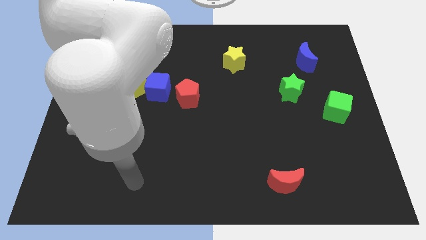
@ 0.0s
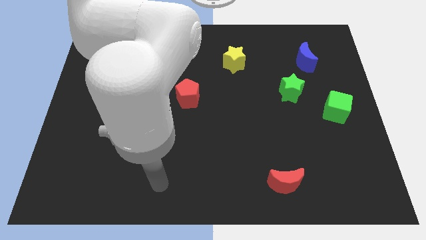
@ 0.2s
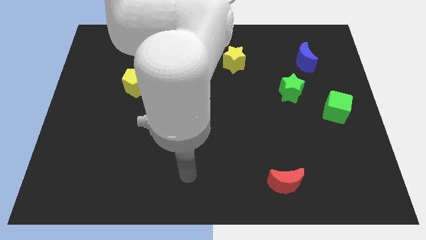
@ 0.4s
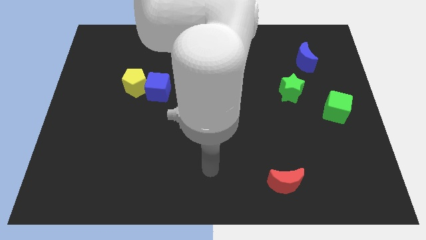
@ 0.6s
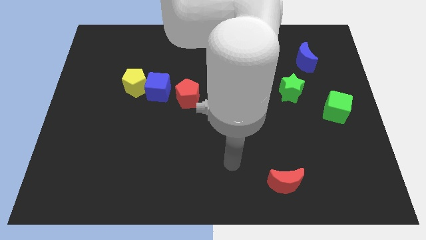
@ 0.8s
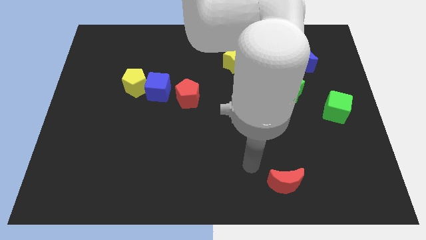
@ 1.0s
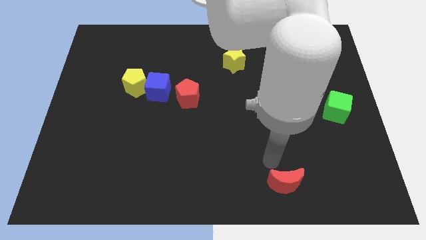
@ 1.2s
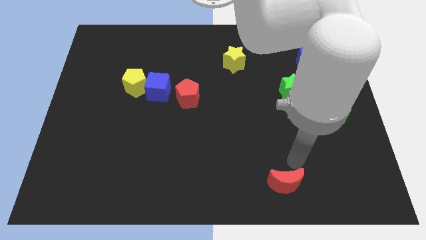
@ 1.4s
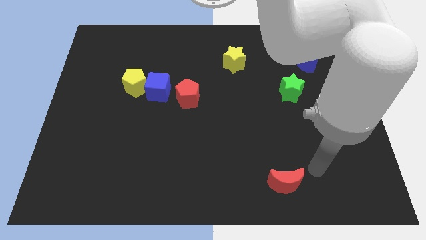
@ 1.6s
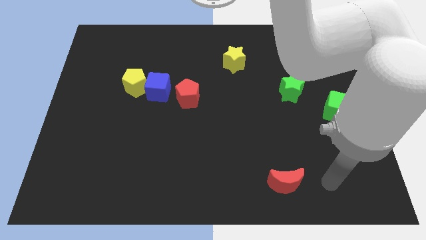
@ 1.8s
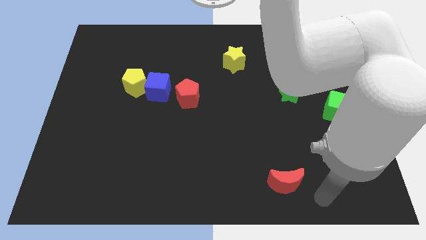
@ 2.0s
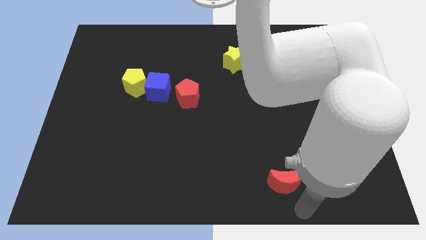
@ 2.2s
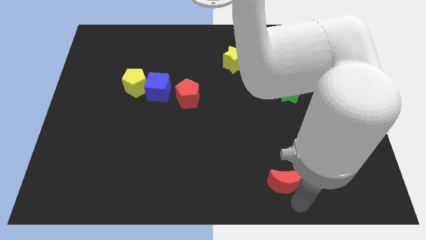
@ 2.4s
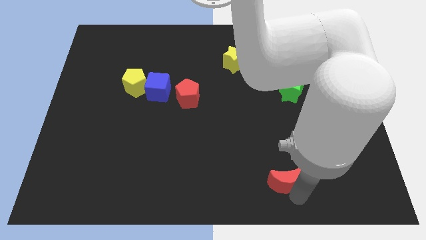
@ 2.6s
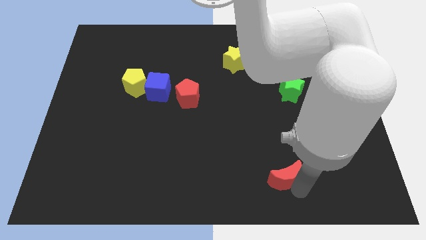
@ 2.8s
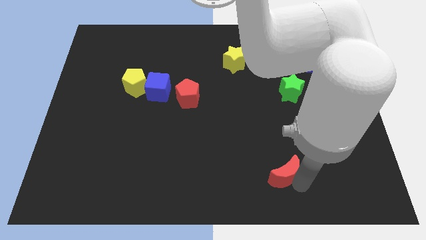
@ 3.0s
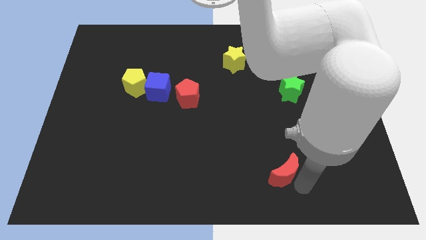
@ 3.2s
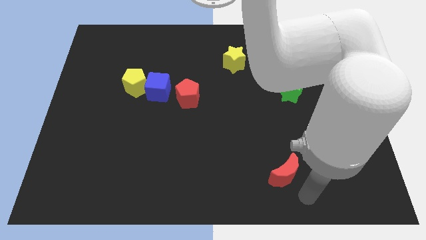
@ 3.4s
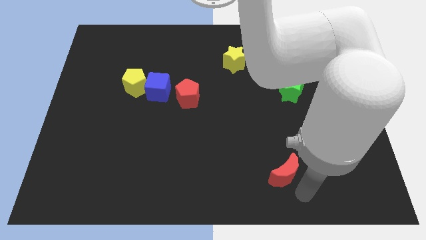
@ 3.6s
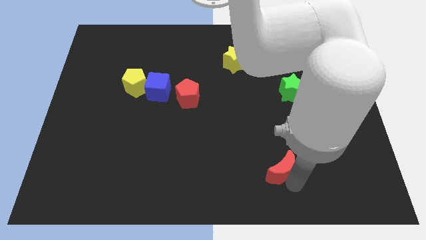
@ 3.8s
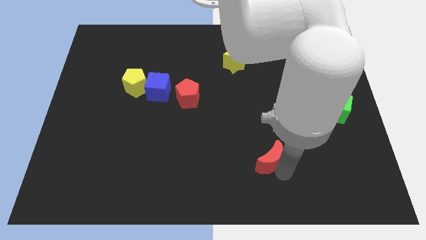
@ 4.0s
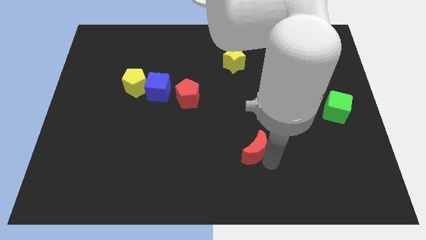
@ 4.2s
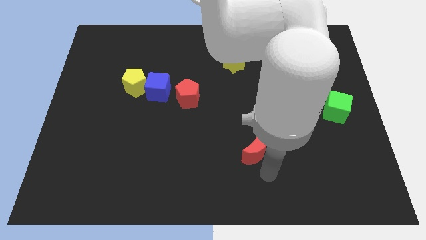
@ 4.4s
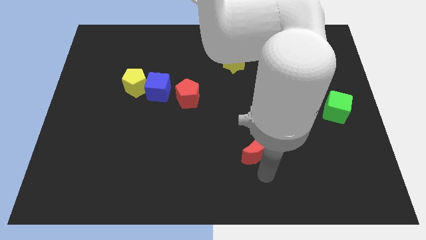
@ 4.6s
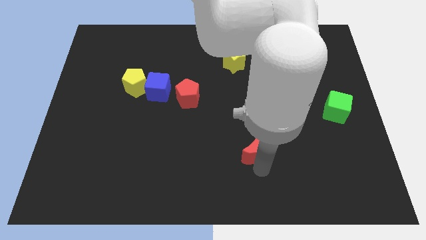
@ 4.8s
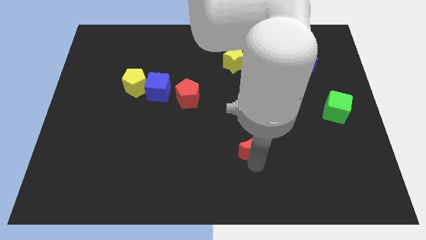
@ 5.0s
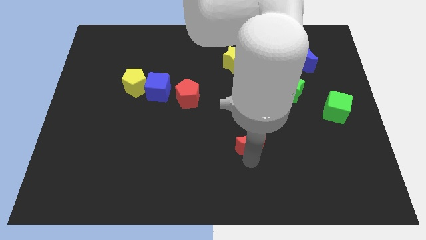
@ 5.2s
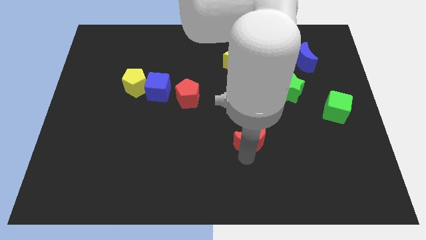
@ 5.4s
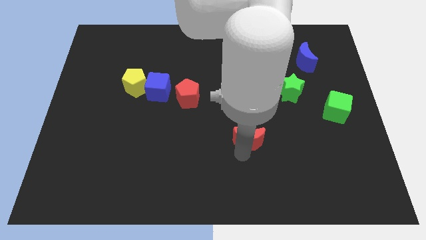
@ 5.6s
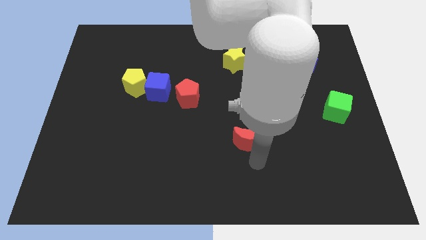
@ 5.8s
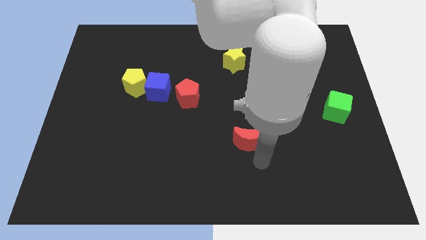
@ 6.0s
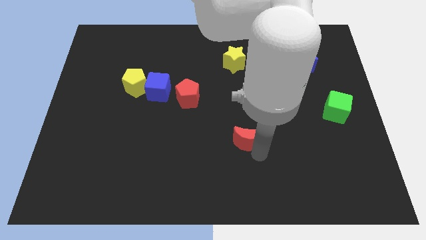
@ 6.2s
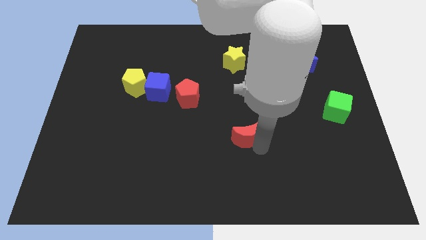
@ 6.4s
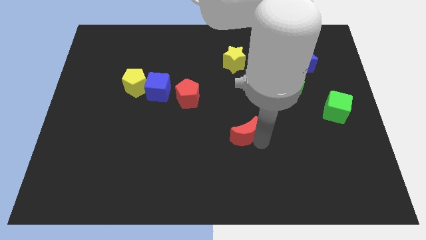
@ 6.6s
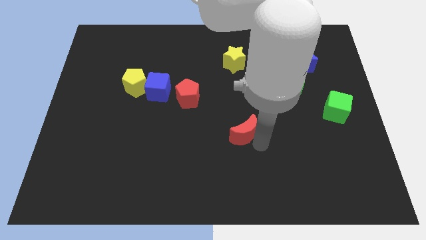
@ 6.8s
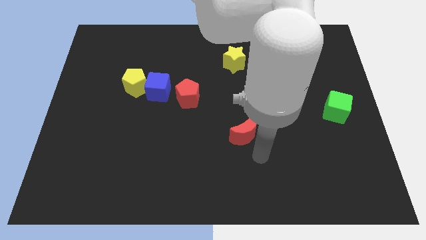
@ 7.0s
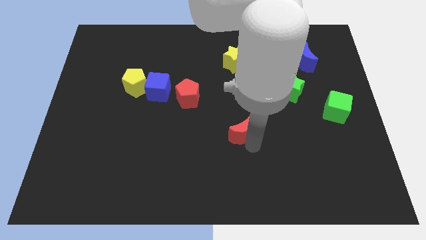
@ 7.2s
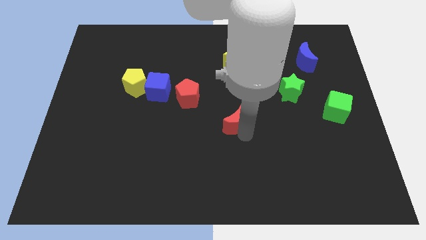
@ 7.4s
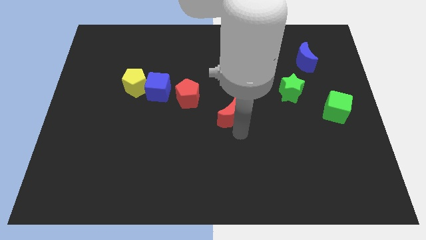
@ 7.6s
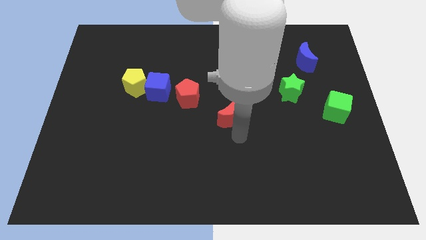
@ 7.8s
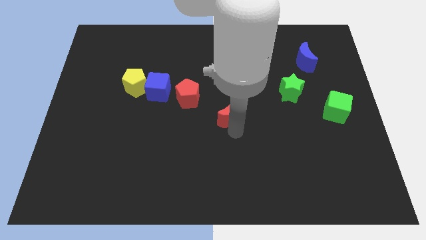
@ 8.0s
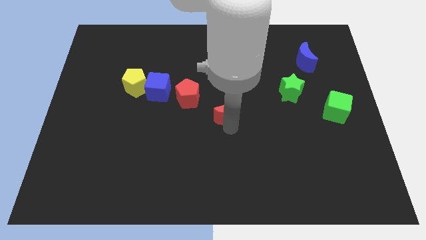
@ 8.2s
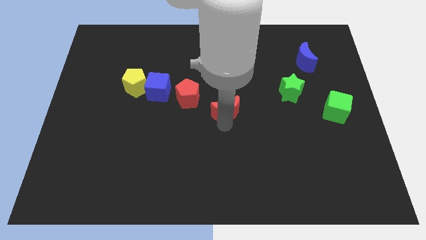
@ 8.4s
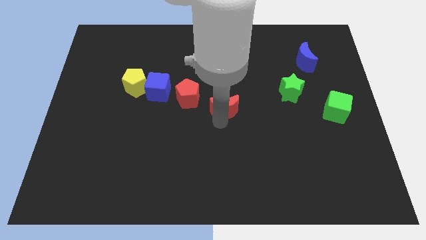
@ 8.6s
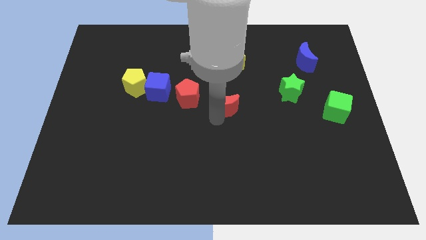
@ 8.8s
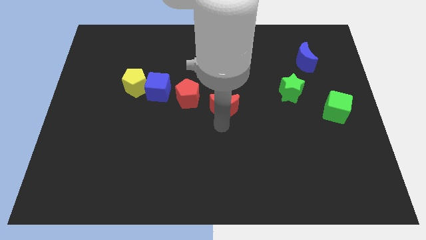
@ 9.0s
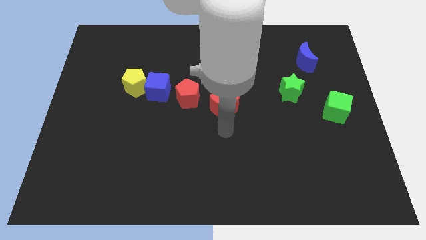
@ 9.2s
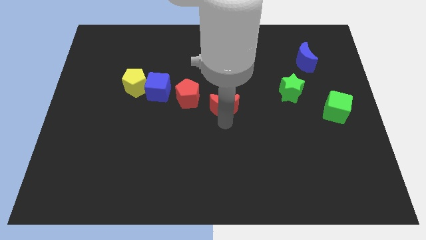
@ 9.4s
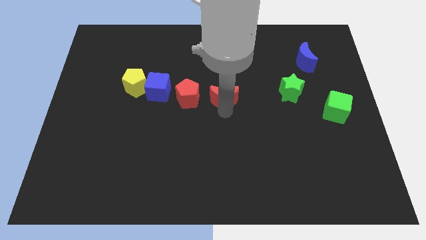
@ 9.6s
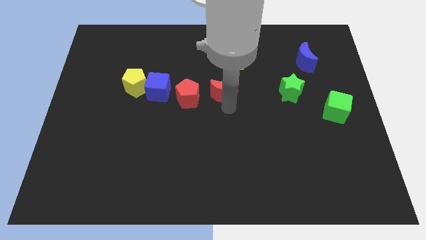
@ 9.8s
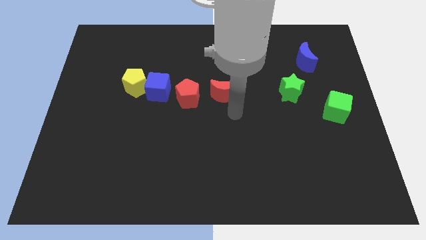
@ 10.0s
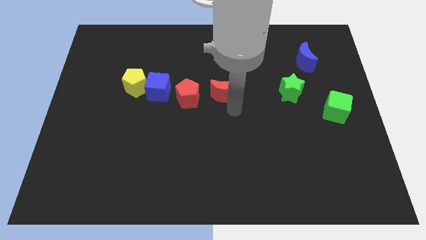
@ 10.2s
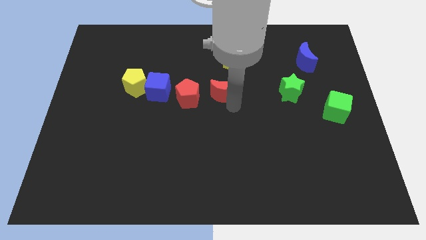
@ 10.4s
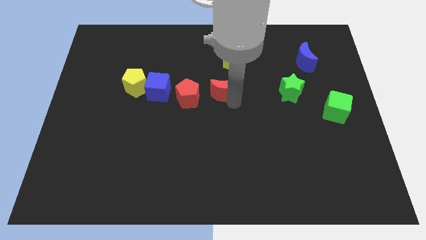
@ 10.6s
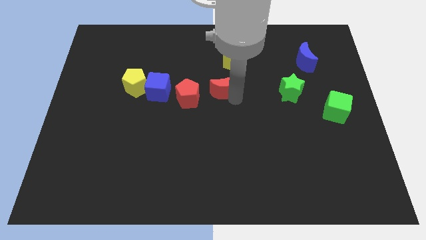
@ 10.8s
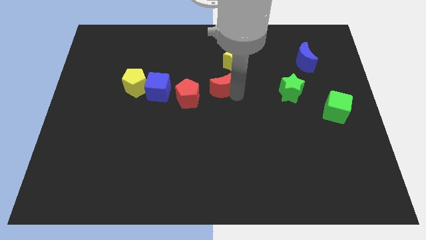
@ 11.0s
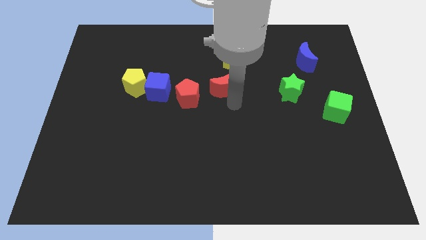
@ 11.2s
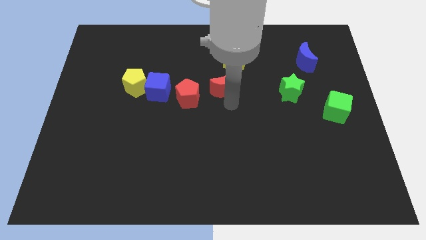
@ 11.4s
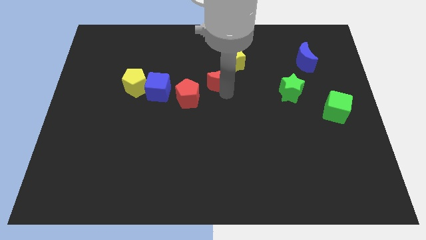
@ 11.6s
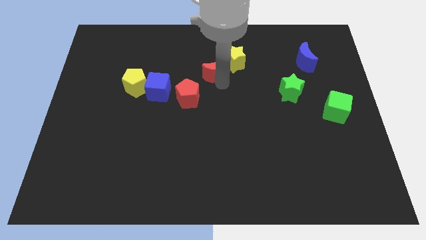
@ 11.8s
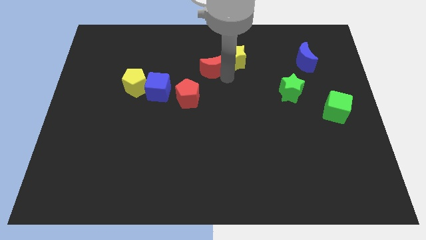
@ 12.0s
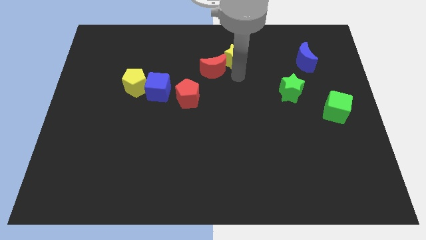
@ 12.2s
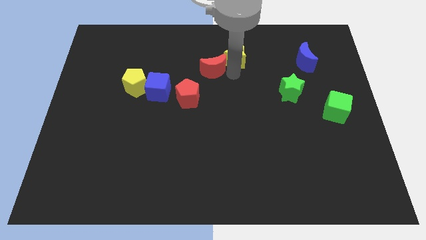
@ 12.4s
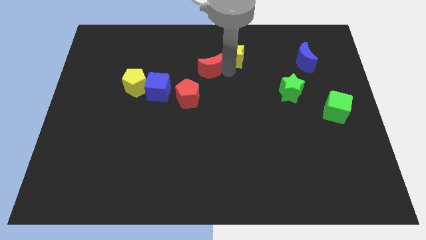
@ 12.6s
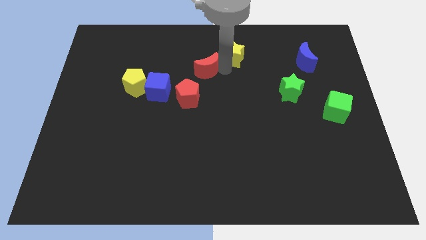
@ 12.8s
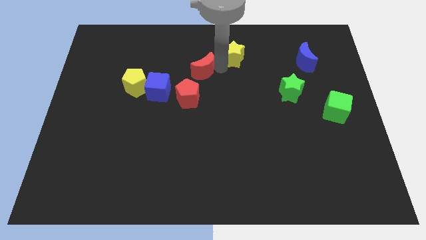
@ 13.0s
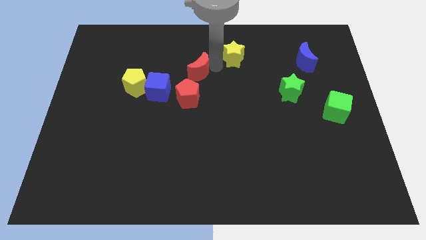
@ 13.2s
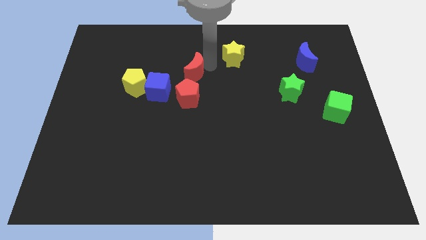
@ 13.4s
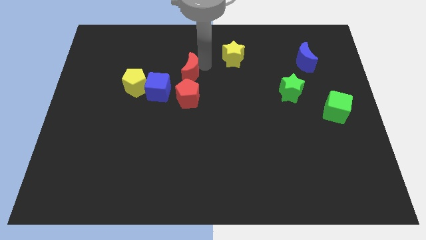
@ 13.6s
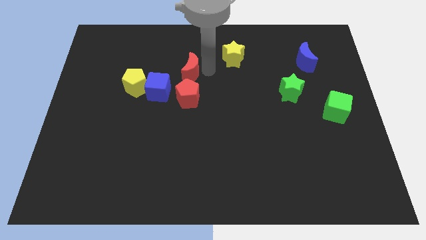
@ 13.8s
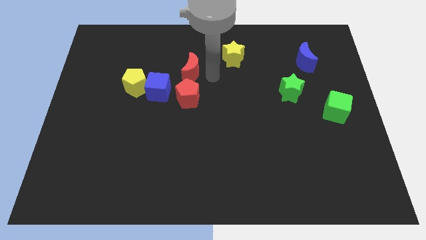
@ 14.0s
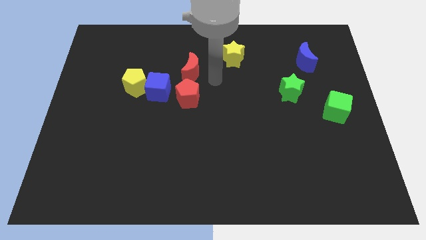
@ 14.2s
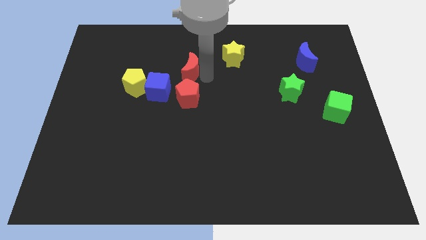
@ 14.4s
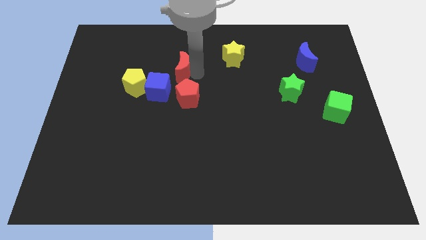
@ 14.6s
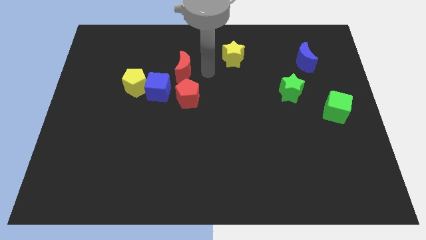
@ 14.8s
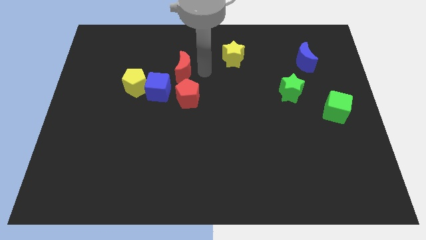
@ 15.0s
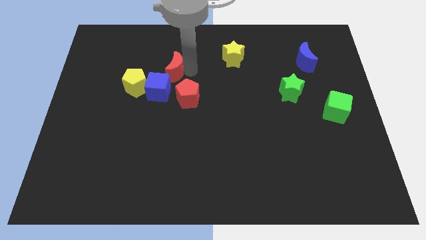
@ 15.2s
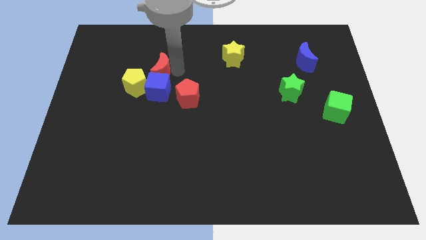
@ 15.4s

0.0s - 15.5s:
put the red moon to the top left side of the blue cube
